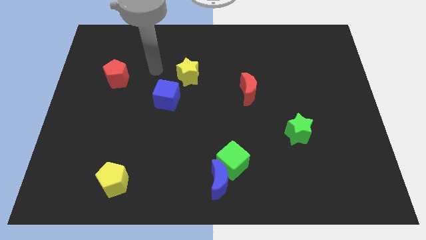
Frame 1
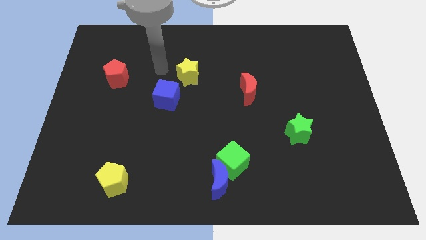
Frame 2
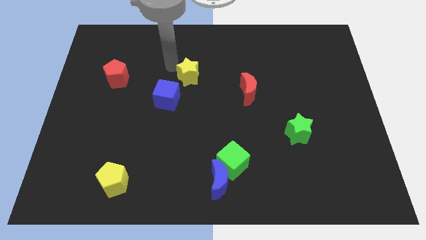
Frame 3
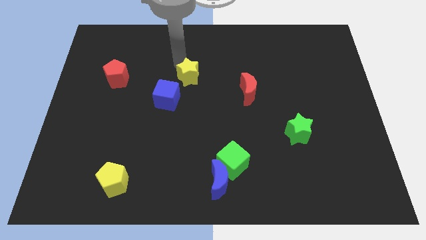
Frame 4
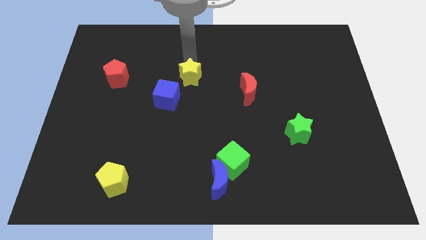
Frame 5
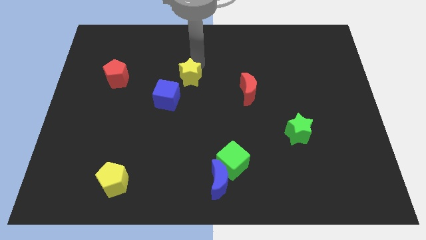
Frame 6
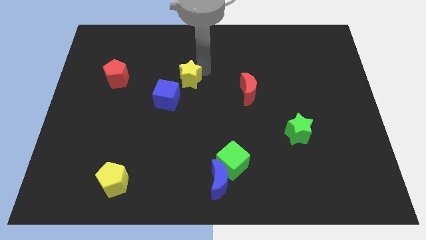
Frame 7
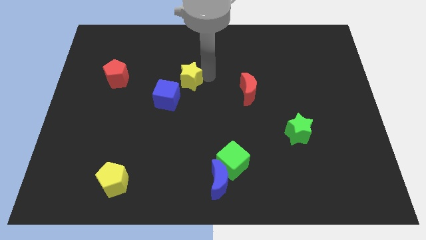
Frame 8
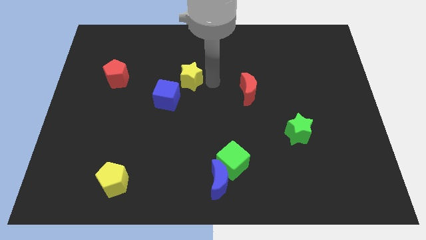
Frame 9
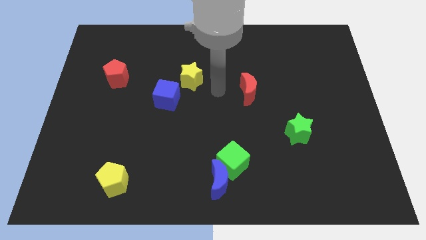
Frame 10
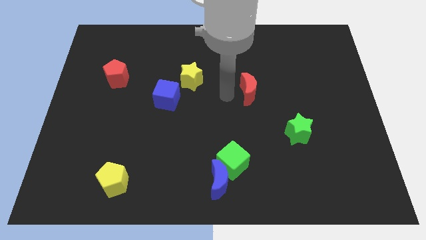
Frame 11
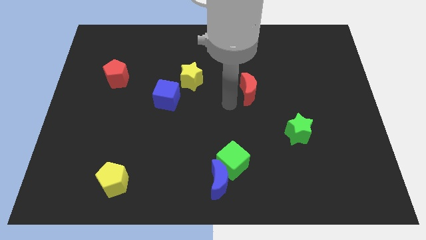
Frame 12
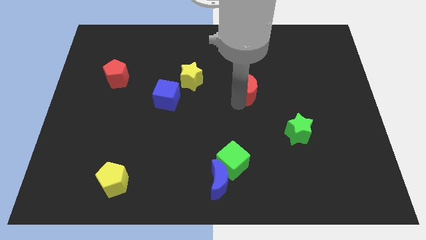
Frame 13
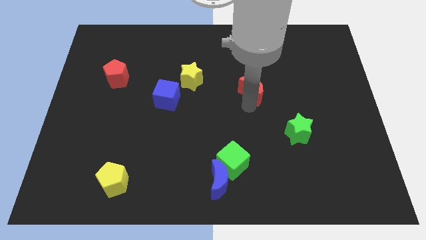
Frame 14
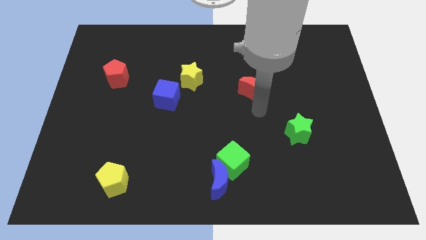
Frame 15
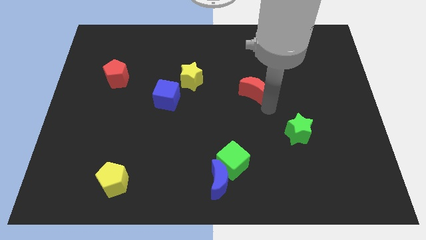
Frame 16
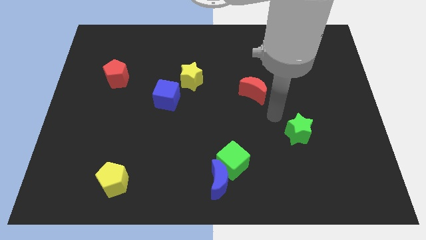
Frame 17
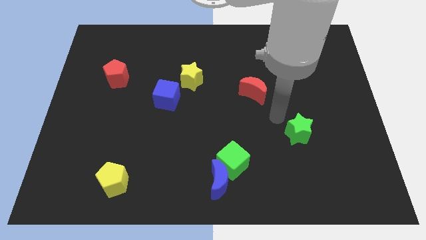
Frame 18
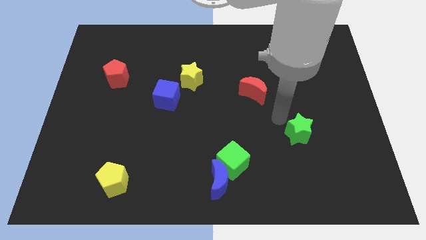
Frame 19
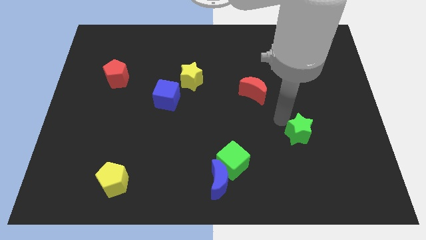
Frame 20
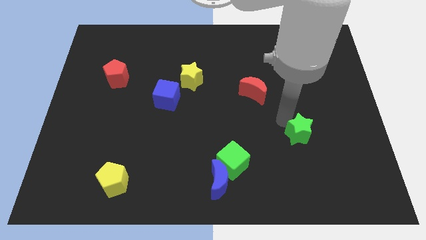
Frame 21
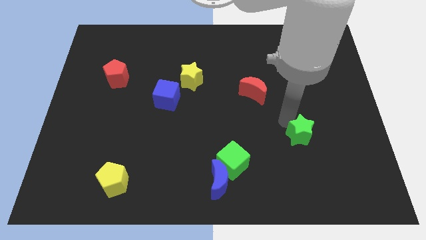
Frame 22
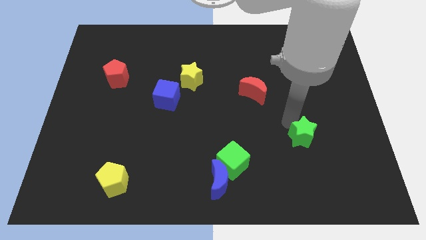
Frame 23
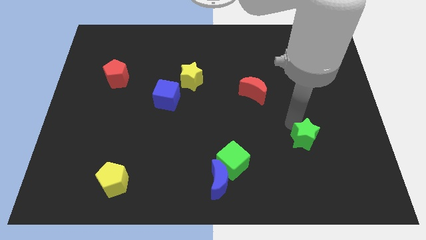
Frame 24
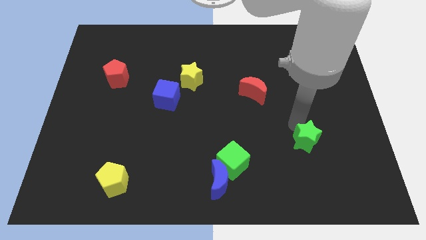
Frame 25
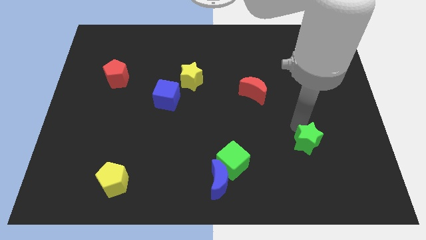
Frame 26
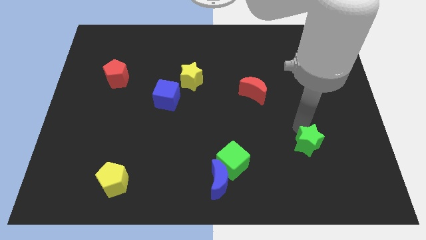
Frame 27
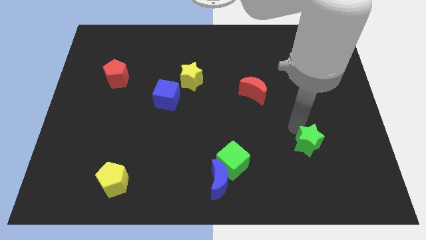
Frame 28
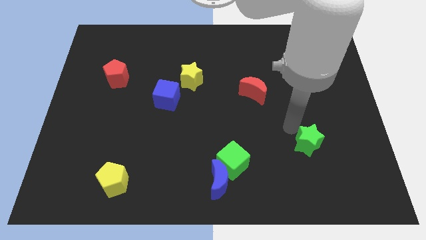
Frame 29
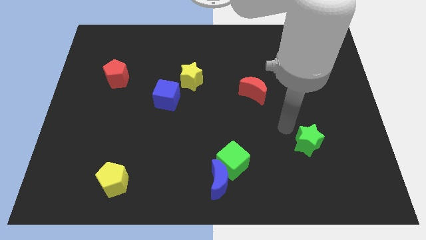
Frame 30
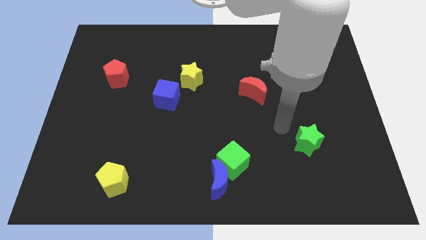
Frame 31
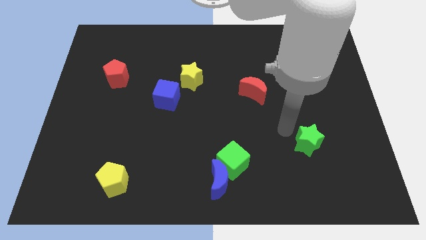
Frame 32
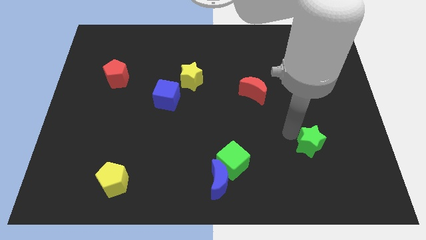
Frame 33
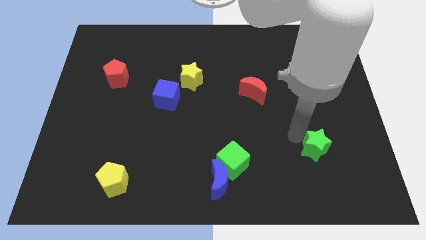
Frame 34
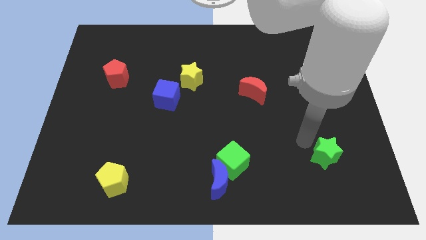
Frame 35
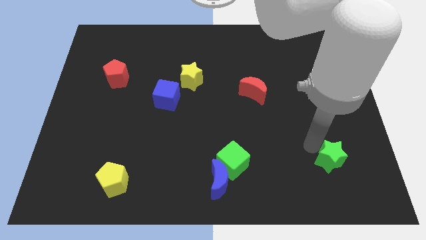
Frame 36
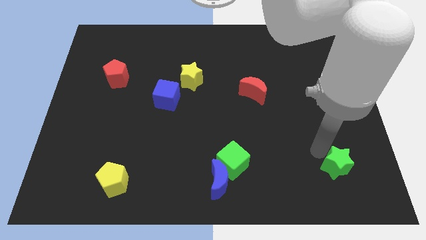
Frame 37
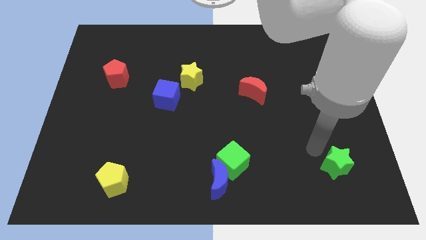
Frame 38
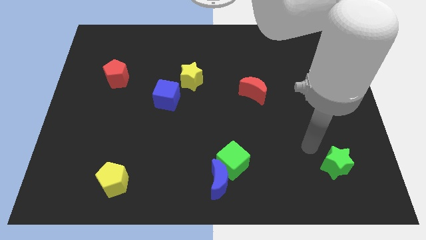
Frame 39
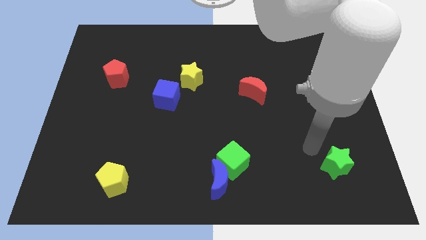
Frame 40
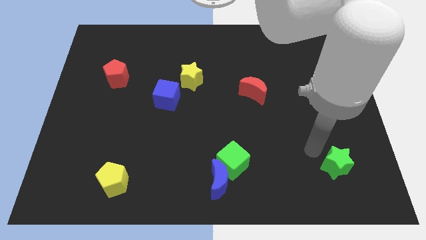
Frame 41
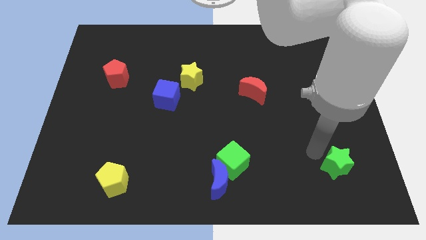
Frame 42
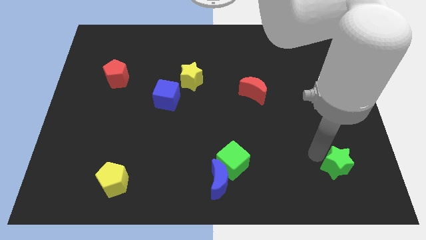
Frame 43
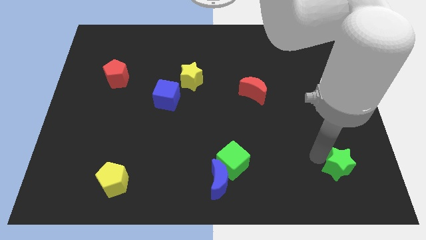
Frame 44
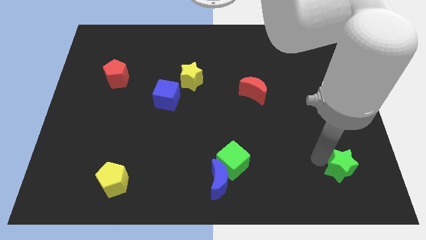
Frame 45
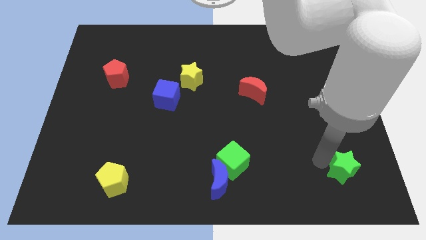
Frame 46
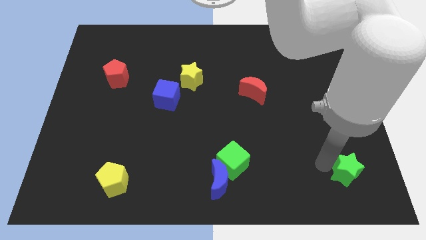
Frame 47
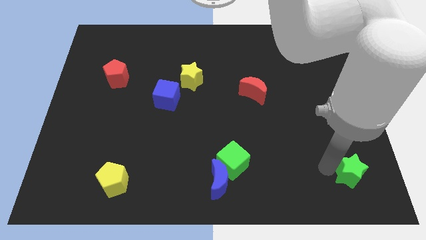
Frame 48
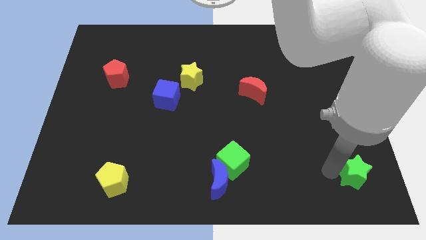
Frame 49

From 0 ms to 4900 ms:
slide the green star to the bottom right of the board

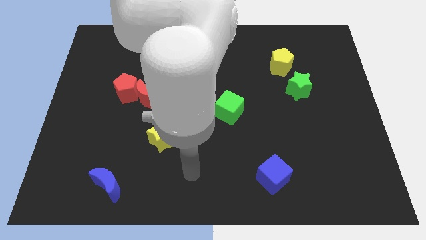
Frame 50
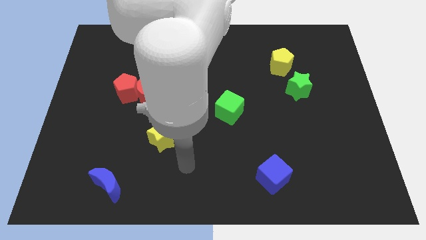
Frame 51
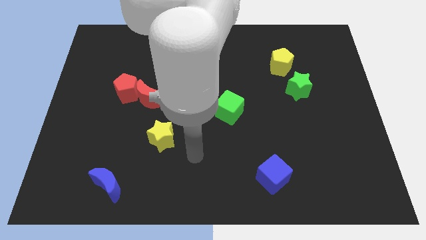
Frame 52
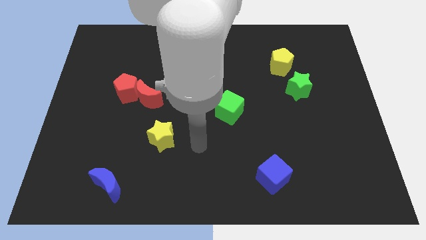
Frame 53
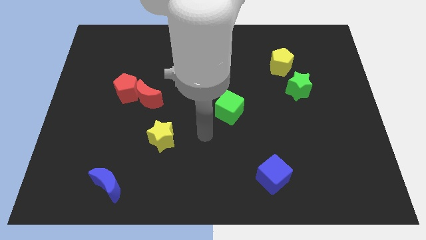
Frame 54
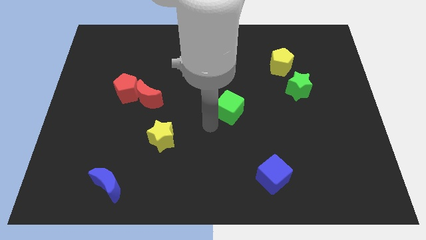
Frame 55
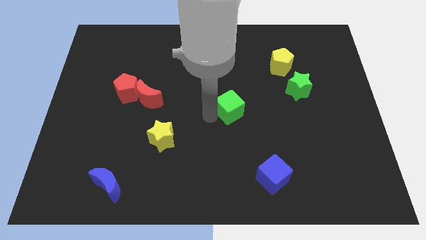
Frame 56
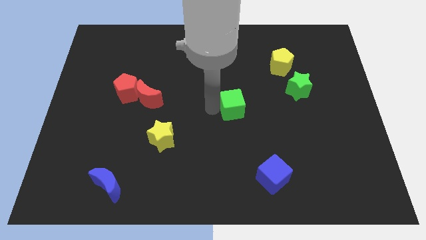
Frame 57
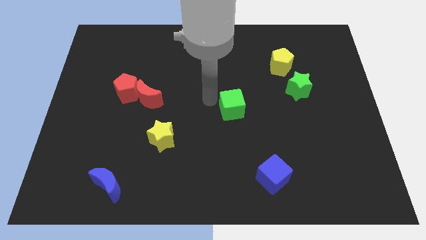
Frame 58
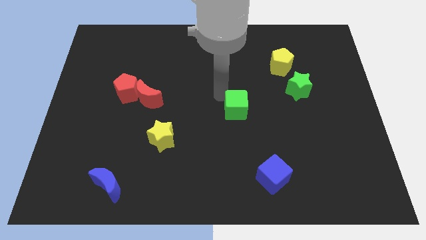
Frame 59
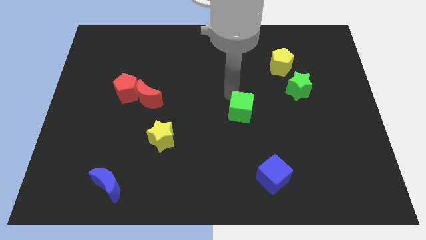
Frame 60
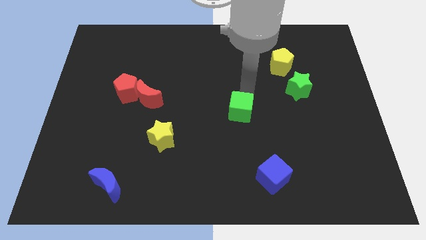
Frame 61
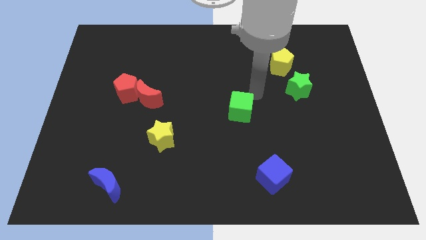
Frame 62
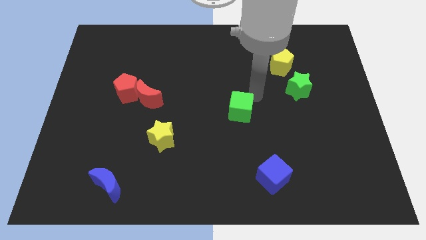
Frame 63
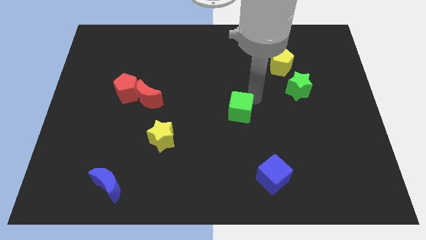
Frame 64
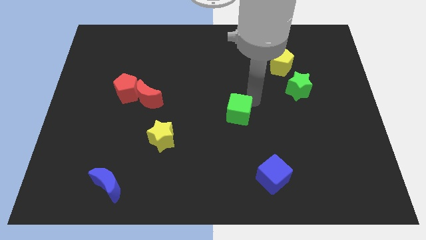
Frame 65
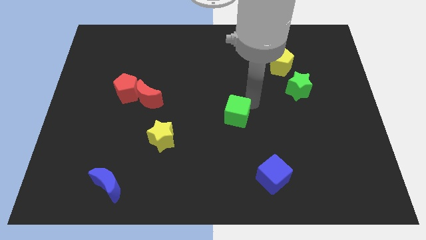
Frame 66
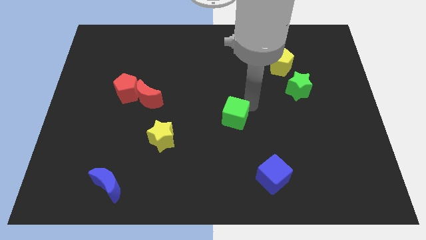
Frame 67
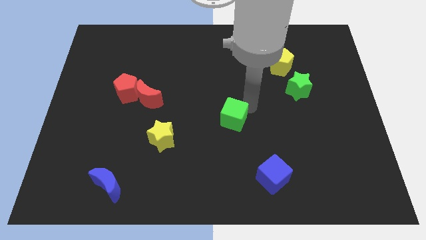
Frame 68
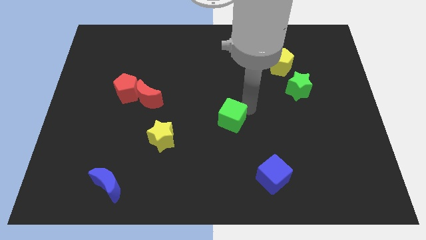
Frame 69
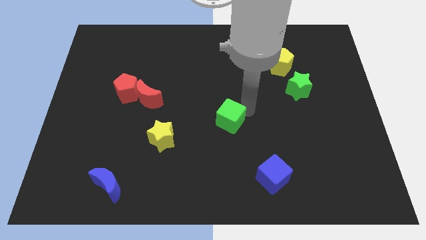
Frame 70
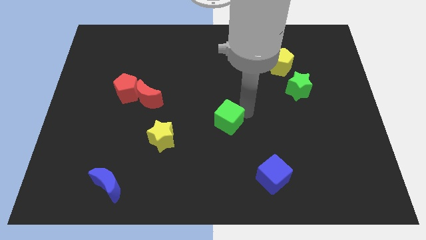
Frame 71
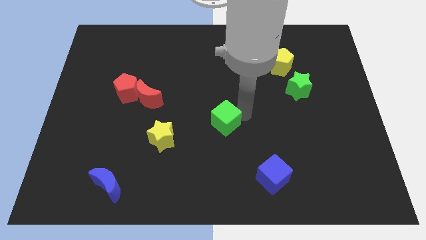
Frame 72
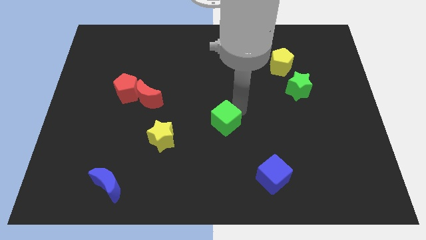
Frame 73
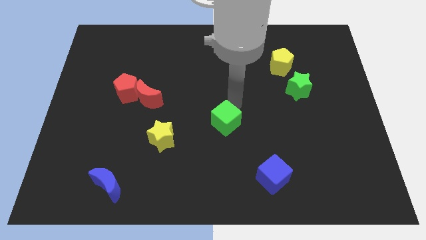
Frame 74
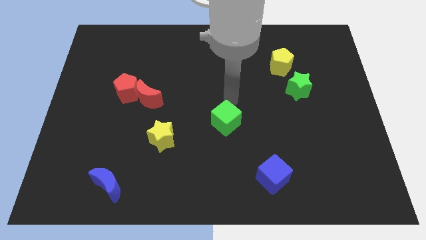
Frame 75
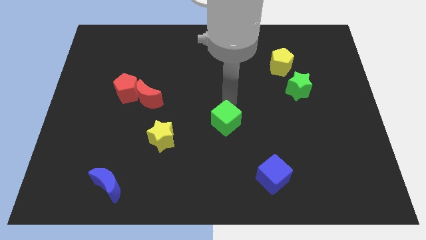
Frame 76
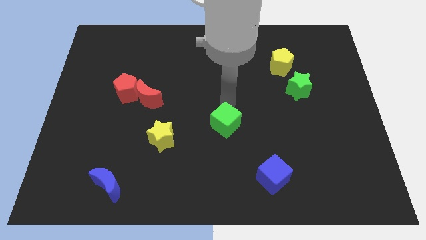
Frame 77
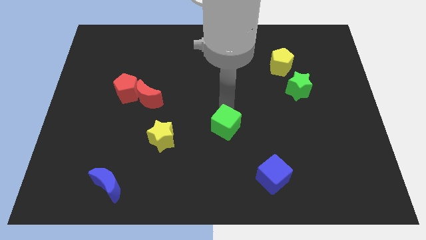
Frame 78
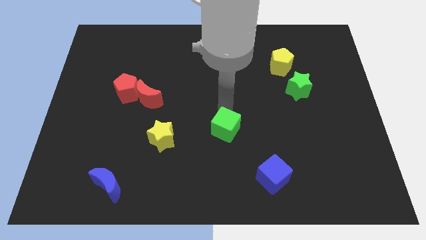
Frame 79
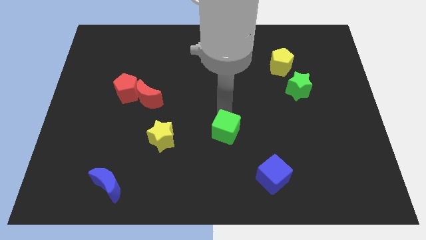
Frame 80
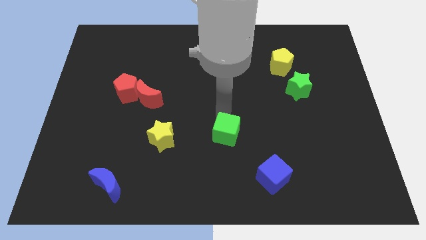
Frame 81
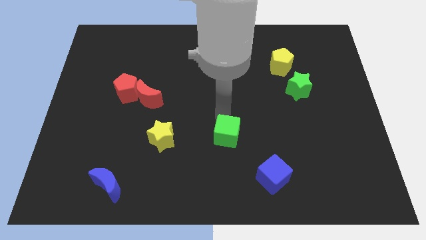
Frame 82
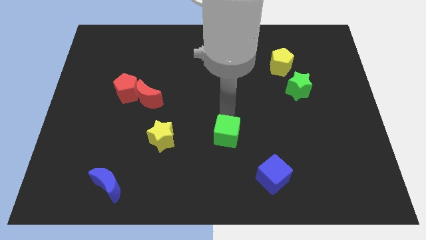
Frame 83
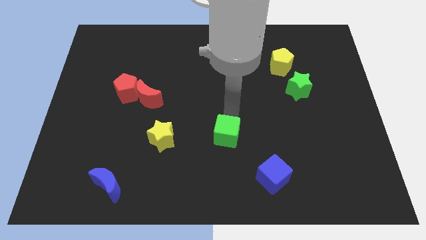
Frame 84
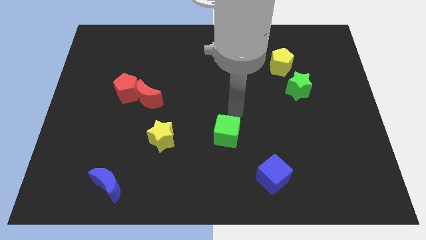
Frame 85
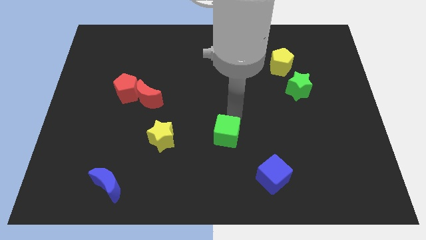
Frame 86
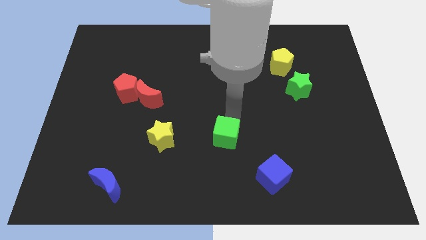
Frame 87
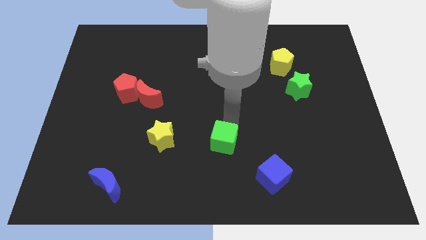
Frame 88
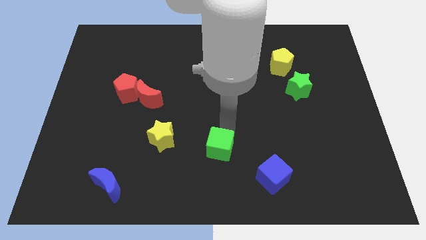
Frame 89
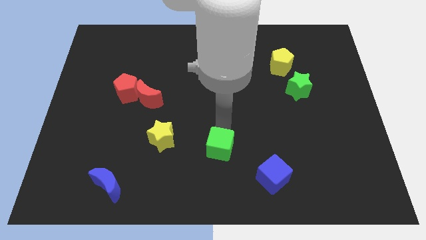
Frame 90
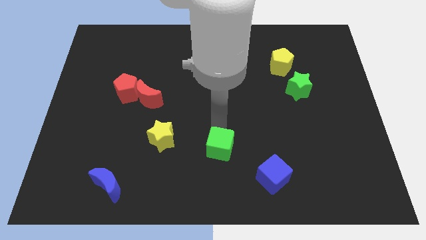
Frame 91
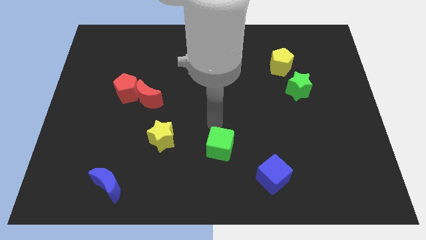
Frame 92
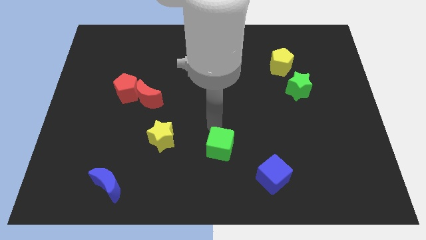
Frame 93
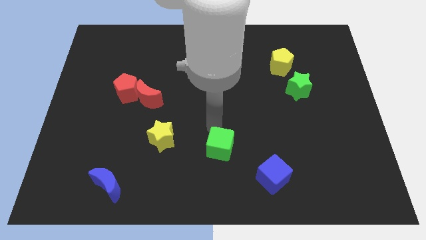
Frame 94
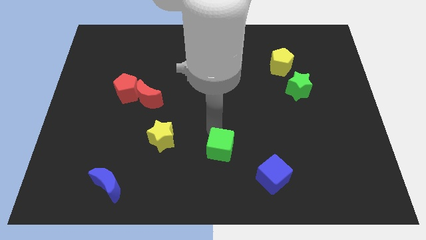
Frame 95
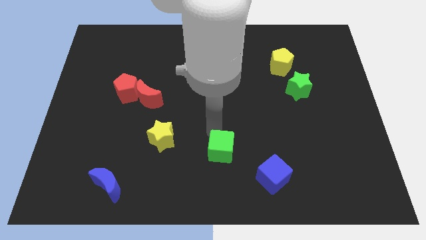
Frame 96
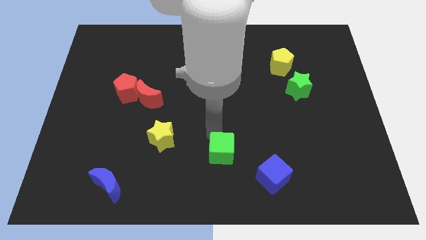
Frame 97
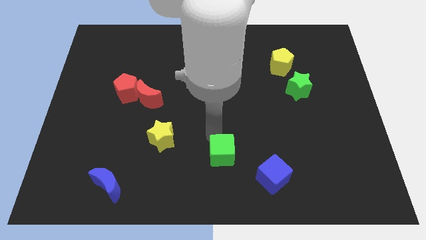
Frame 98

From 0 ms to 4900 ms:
push the green cube to the bottom
